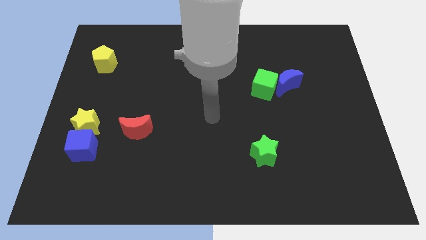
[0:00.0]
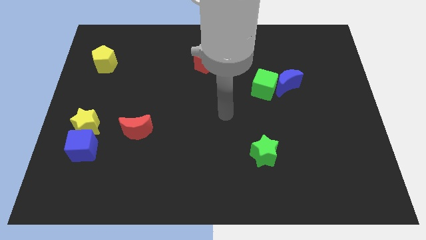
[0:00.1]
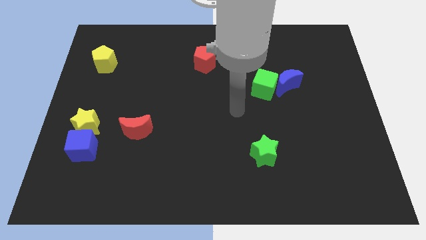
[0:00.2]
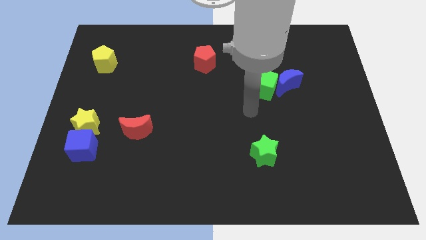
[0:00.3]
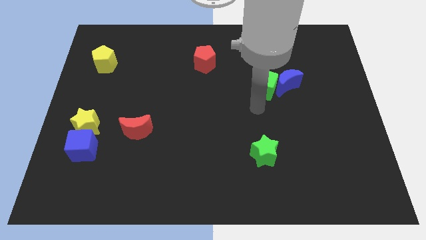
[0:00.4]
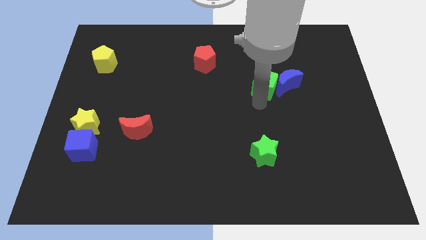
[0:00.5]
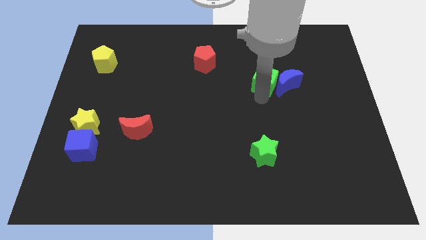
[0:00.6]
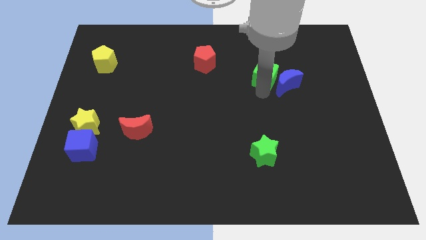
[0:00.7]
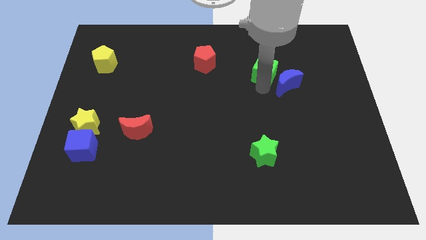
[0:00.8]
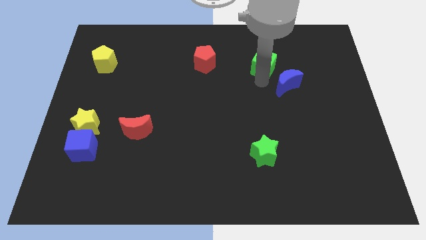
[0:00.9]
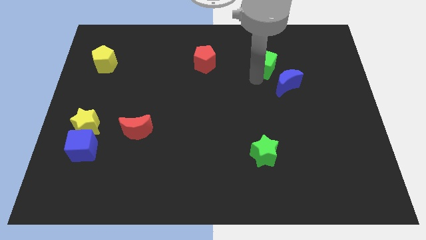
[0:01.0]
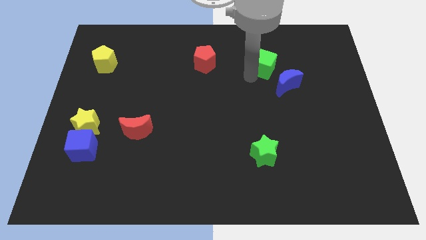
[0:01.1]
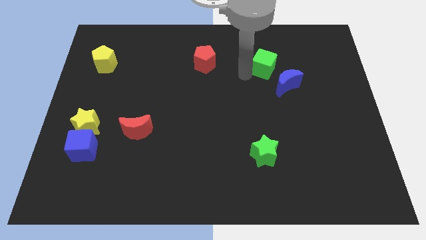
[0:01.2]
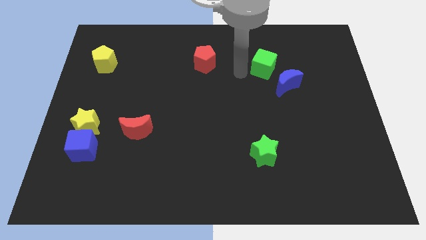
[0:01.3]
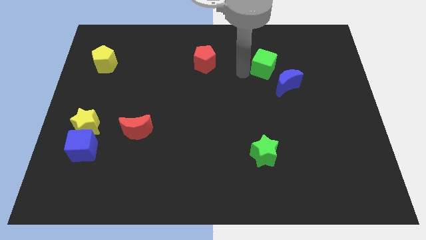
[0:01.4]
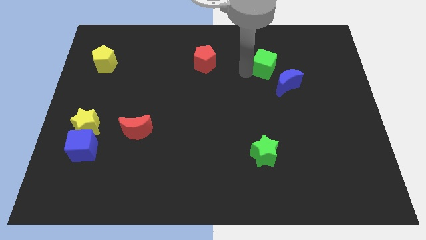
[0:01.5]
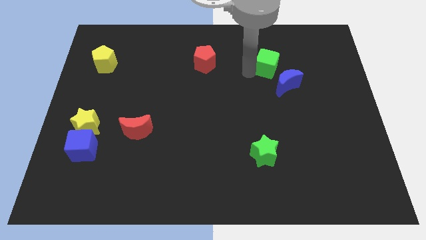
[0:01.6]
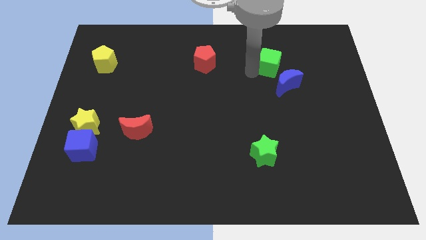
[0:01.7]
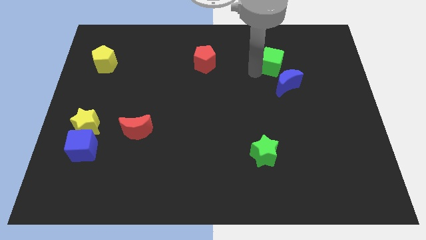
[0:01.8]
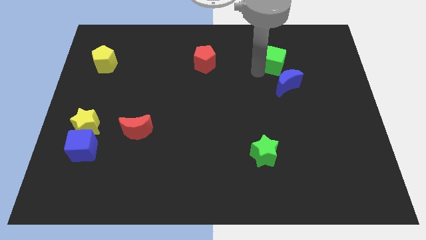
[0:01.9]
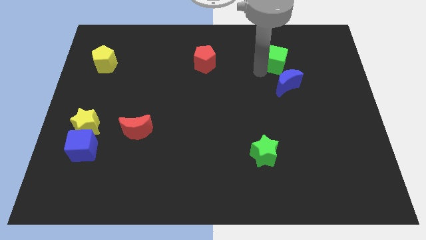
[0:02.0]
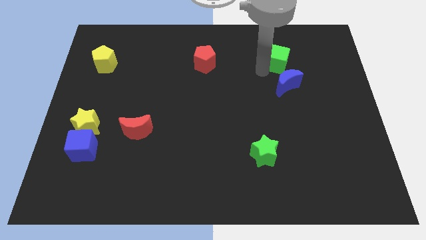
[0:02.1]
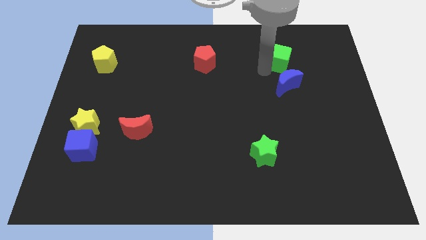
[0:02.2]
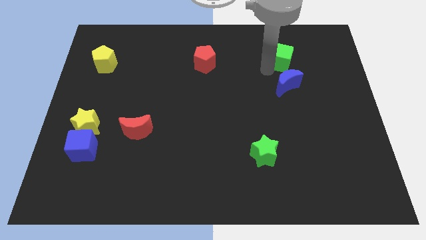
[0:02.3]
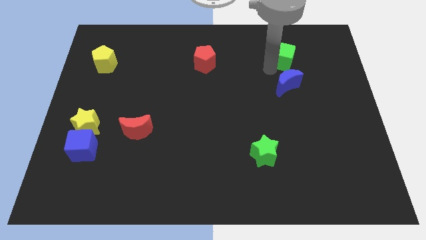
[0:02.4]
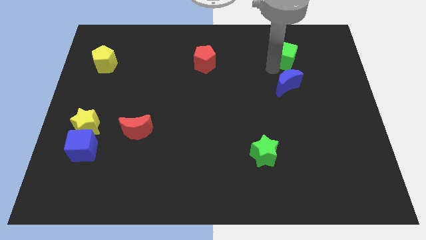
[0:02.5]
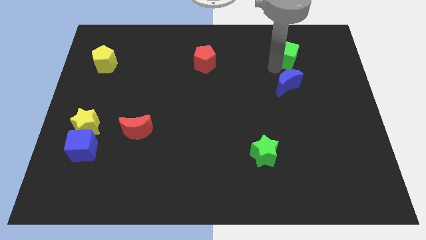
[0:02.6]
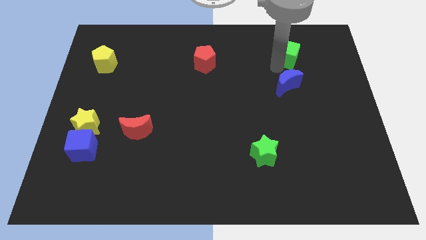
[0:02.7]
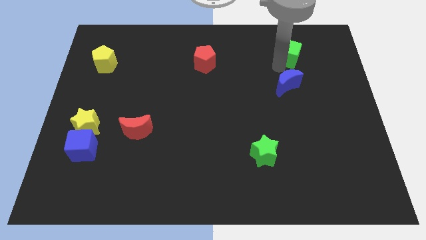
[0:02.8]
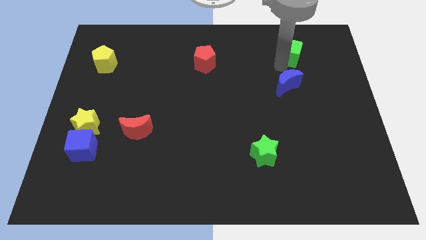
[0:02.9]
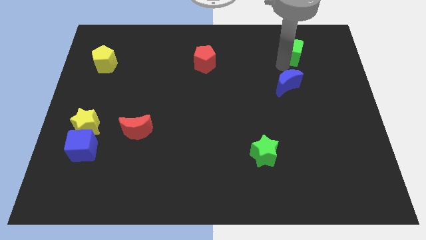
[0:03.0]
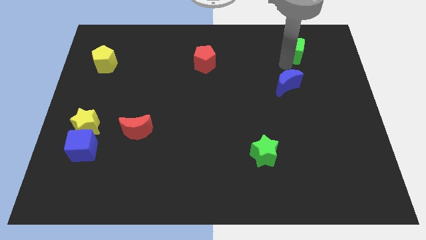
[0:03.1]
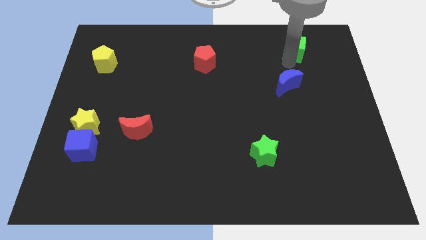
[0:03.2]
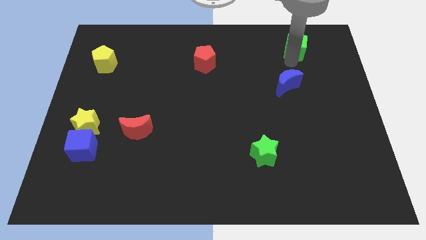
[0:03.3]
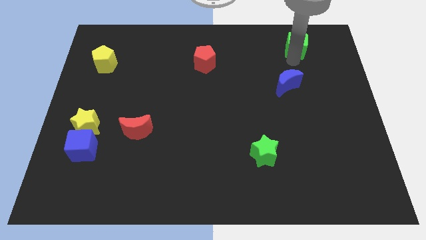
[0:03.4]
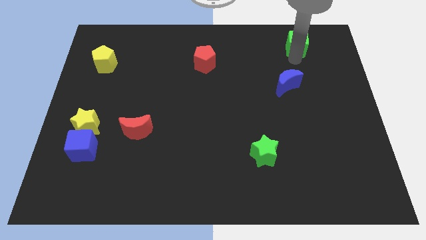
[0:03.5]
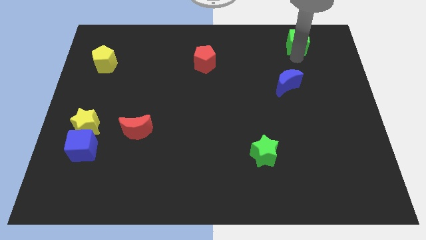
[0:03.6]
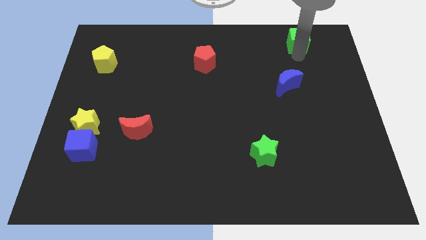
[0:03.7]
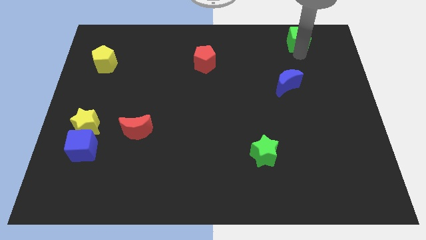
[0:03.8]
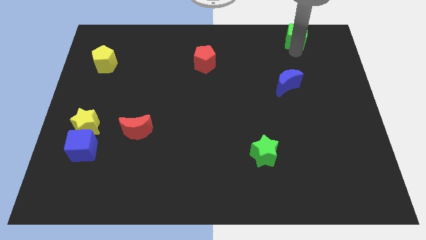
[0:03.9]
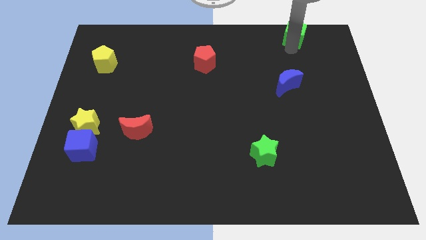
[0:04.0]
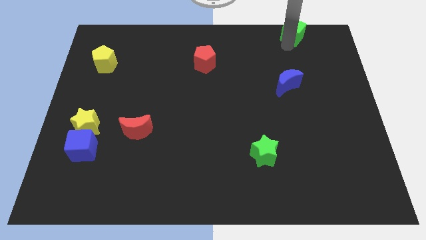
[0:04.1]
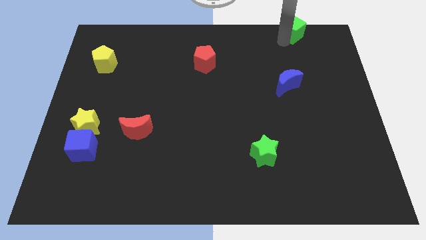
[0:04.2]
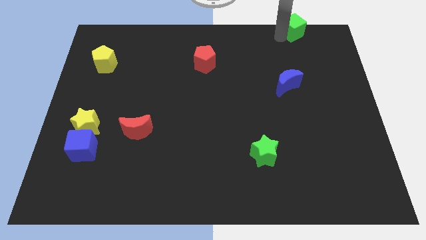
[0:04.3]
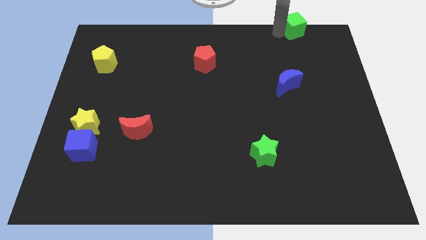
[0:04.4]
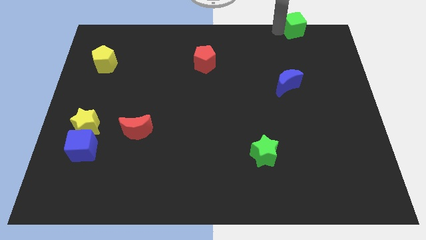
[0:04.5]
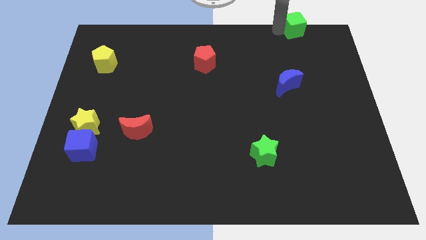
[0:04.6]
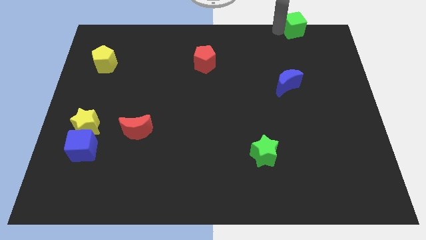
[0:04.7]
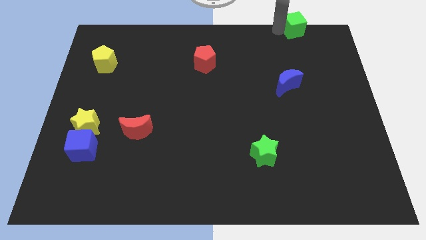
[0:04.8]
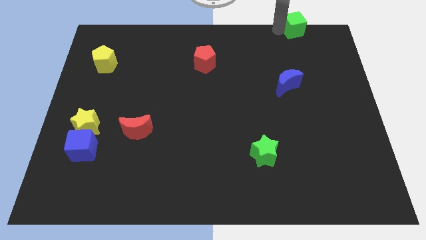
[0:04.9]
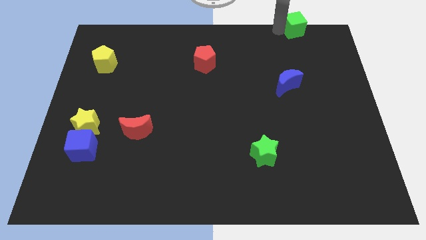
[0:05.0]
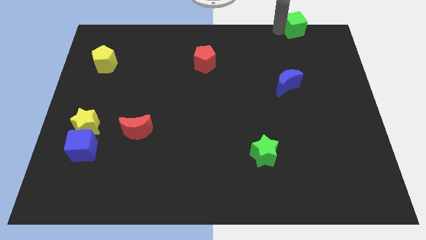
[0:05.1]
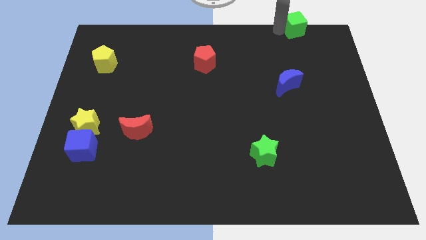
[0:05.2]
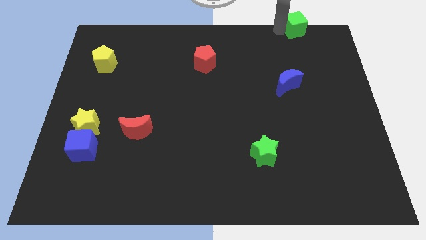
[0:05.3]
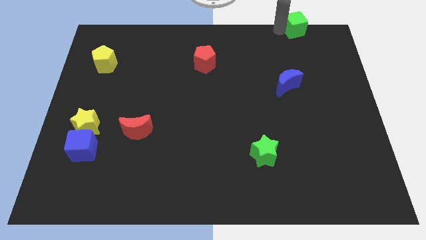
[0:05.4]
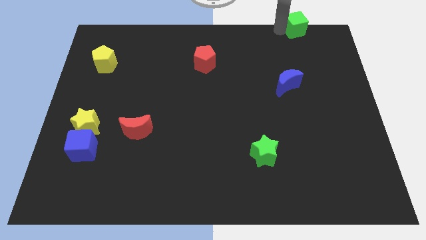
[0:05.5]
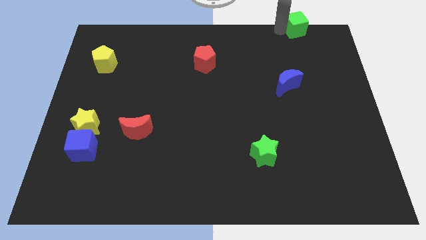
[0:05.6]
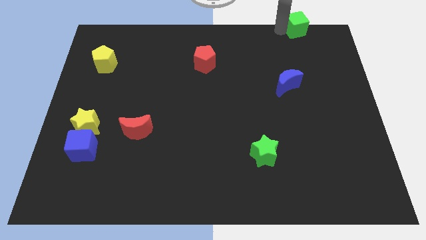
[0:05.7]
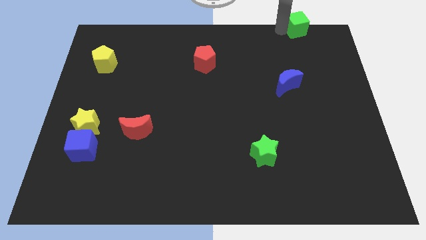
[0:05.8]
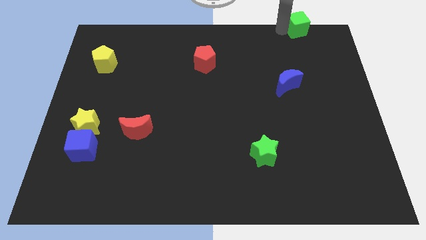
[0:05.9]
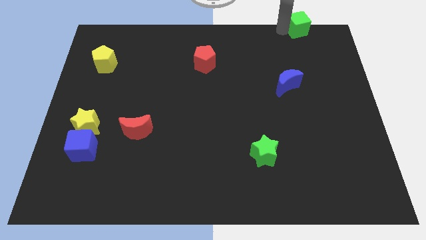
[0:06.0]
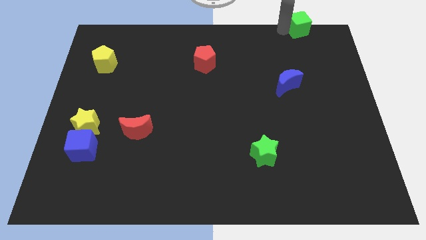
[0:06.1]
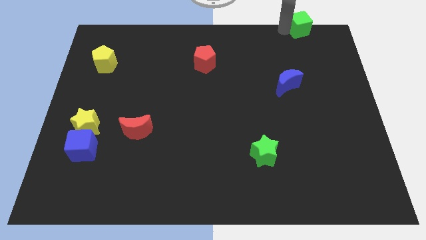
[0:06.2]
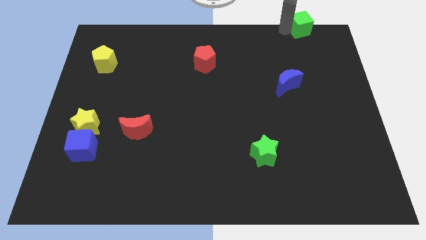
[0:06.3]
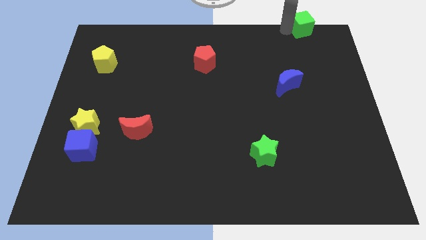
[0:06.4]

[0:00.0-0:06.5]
push the green cube to the top right
